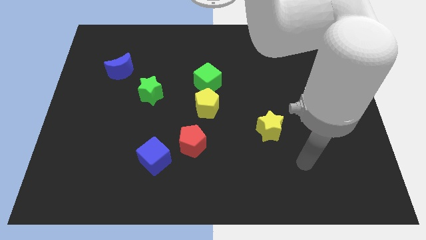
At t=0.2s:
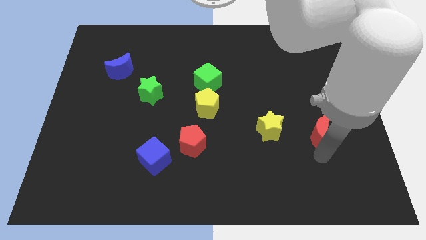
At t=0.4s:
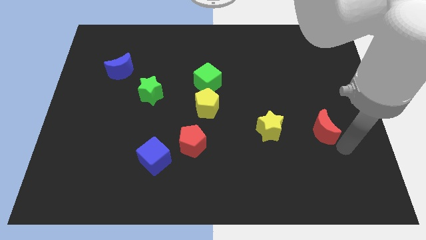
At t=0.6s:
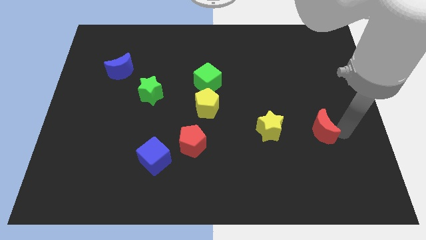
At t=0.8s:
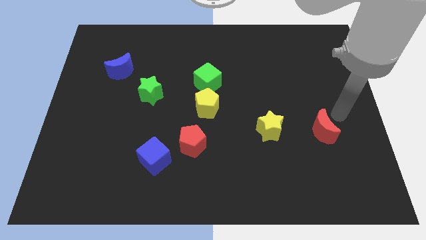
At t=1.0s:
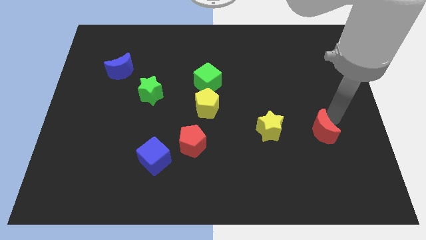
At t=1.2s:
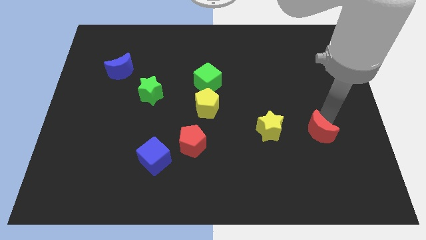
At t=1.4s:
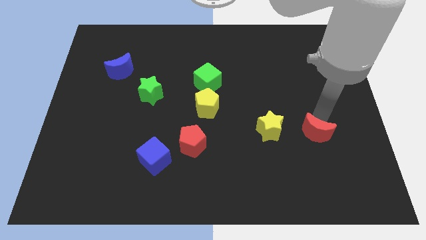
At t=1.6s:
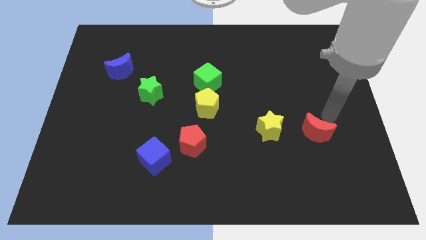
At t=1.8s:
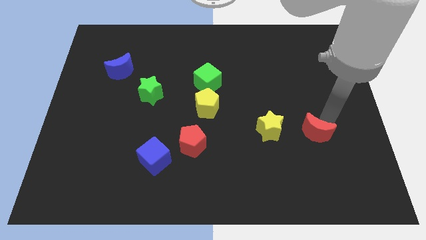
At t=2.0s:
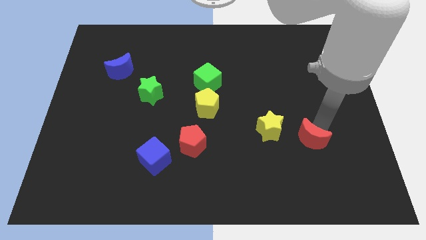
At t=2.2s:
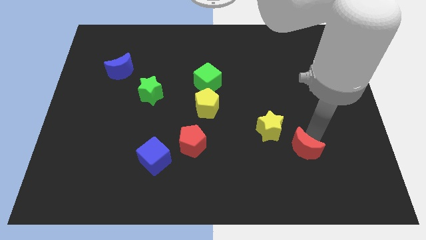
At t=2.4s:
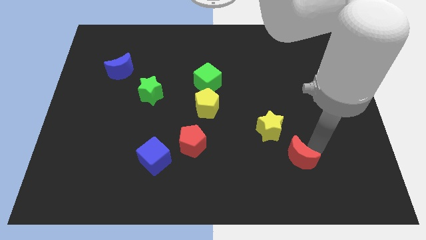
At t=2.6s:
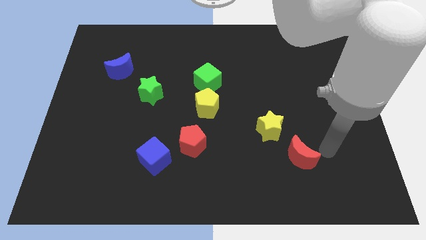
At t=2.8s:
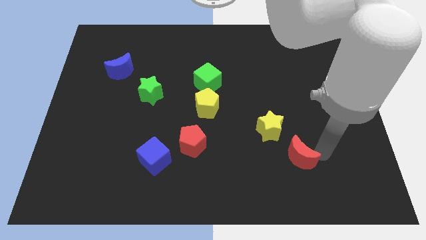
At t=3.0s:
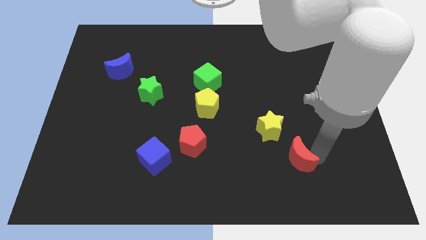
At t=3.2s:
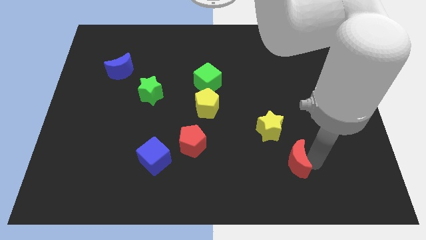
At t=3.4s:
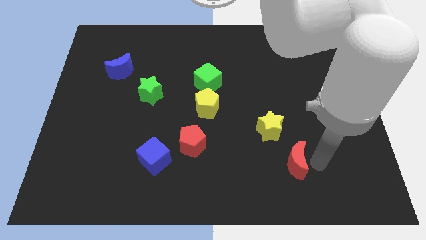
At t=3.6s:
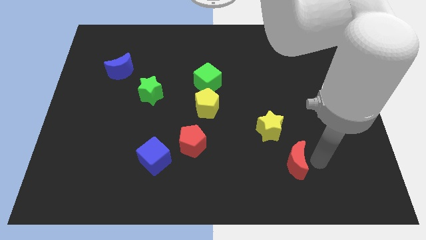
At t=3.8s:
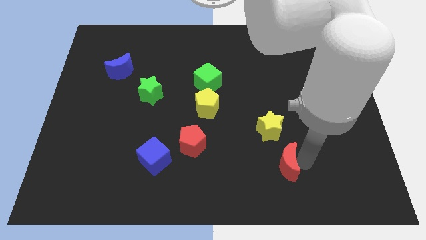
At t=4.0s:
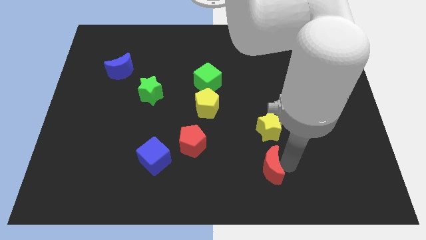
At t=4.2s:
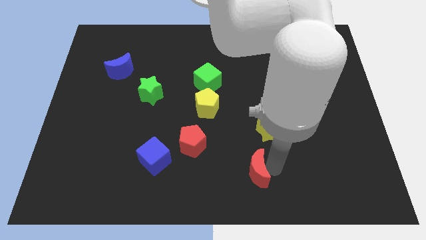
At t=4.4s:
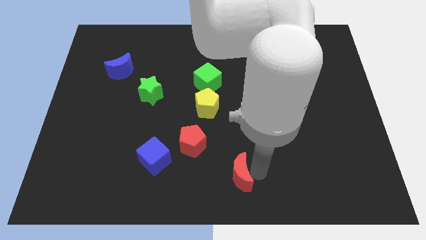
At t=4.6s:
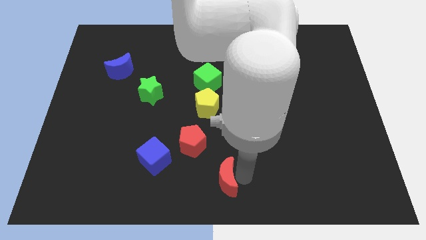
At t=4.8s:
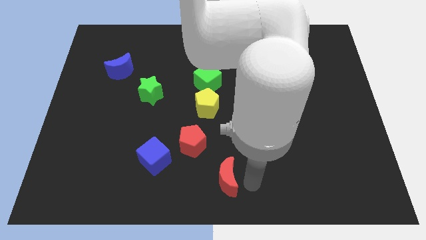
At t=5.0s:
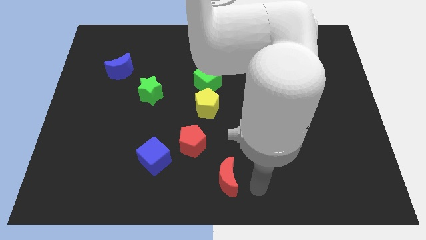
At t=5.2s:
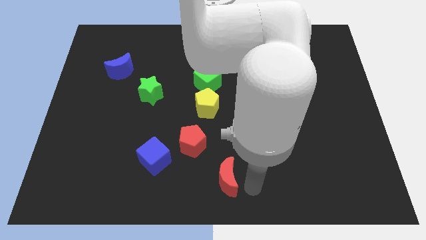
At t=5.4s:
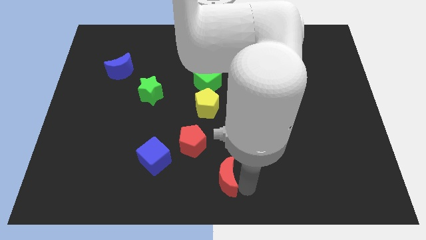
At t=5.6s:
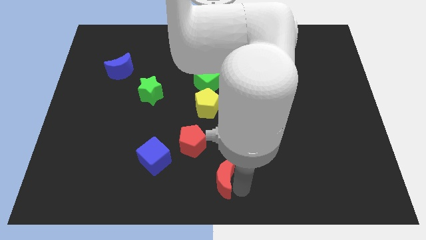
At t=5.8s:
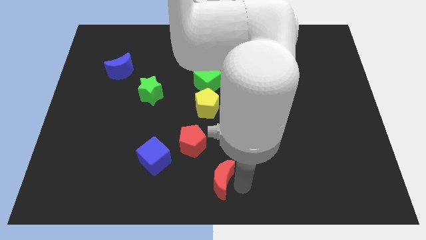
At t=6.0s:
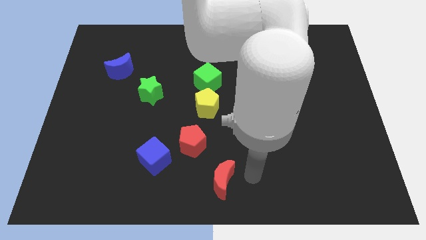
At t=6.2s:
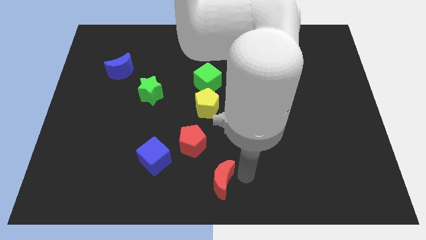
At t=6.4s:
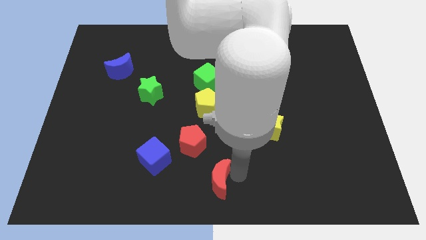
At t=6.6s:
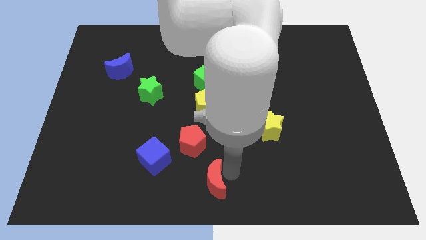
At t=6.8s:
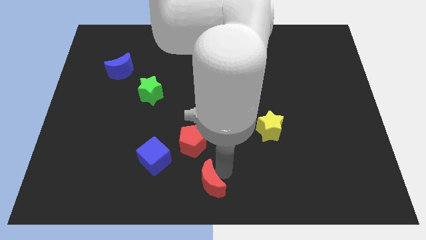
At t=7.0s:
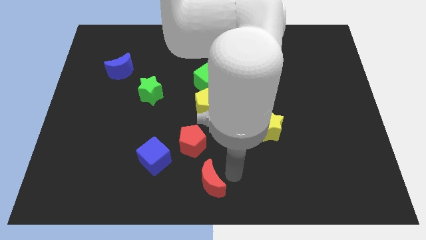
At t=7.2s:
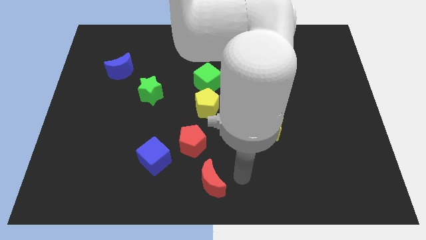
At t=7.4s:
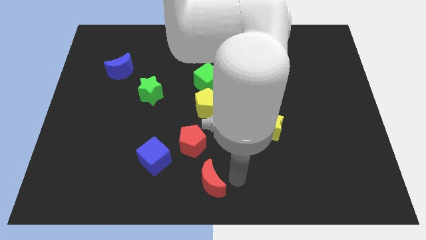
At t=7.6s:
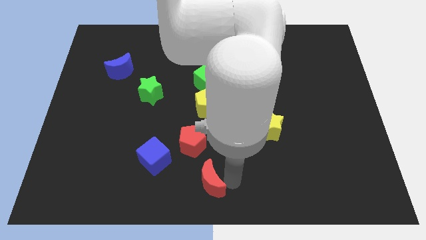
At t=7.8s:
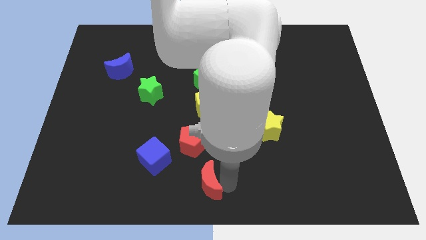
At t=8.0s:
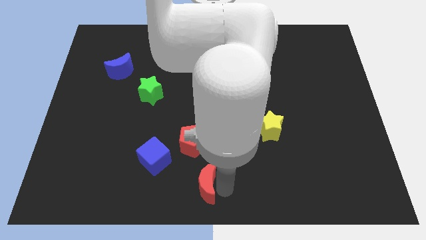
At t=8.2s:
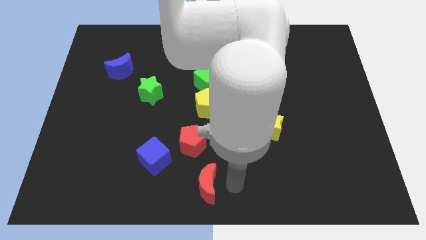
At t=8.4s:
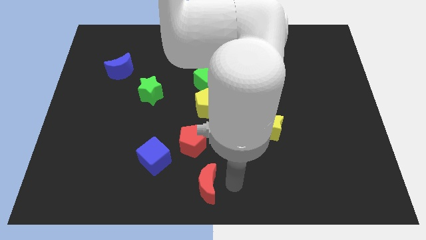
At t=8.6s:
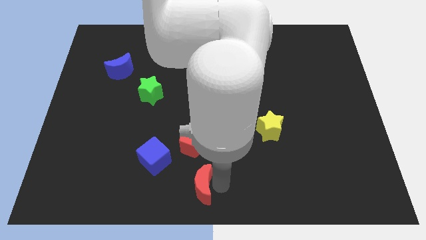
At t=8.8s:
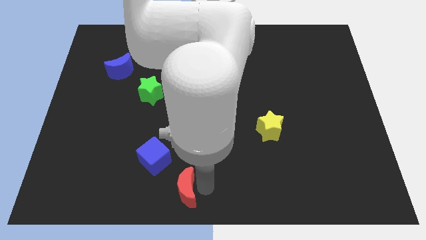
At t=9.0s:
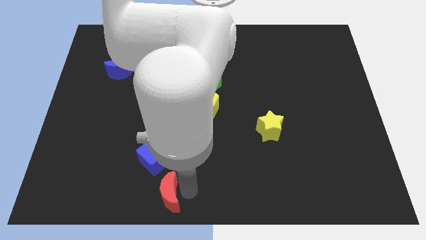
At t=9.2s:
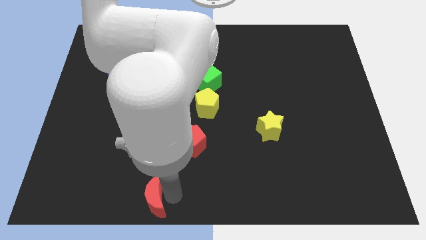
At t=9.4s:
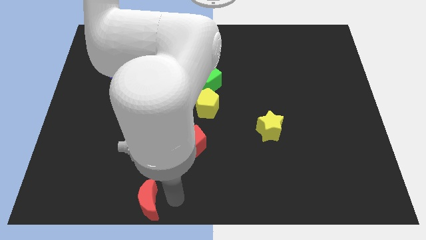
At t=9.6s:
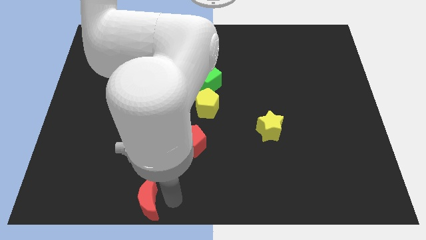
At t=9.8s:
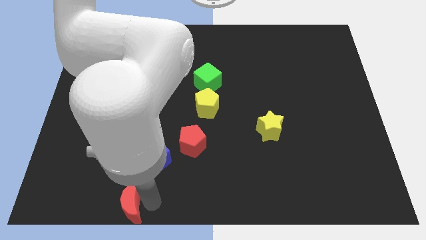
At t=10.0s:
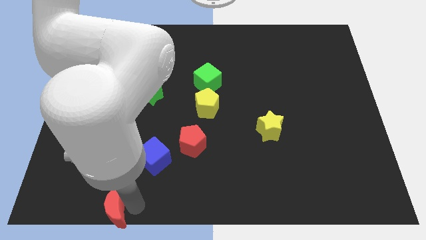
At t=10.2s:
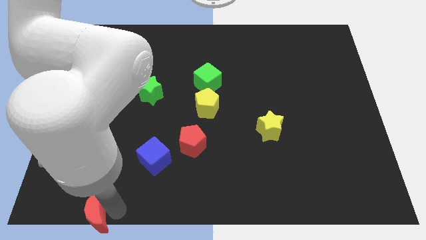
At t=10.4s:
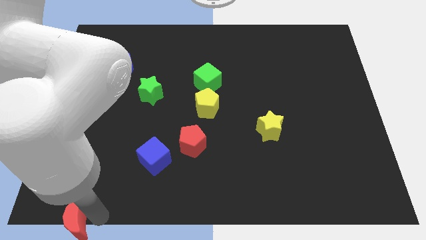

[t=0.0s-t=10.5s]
move the red moon to the bottom left corner

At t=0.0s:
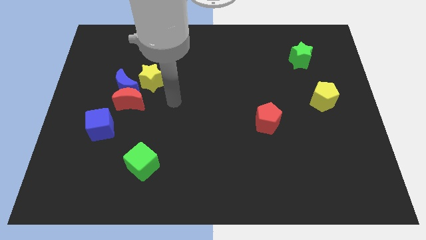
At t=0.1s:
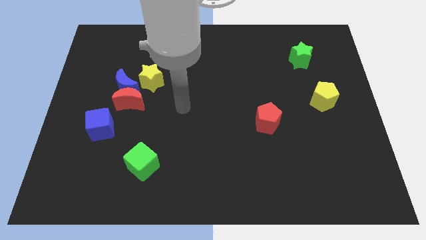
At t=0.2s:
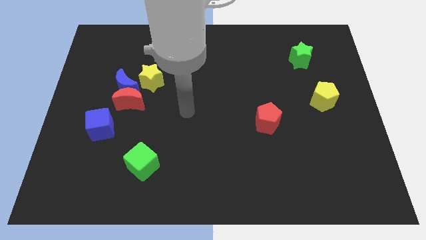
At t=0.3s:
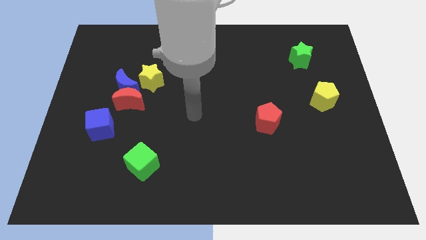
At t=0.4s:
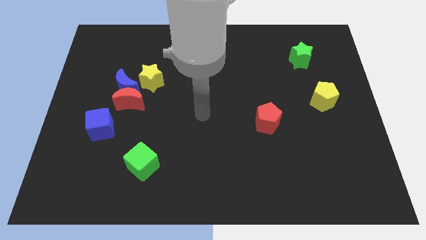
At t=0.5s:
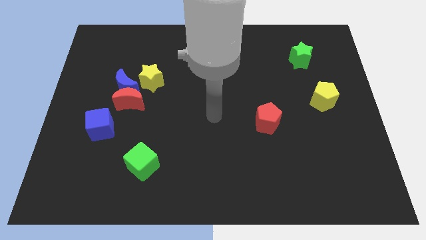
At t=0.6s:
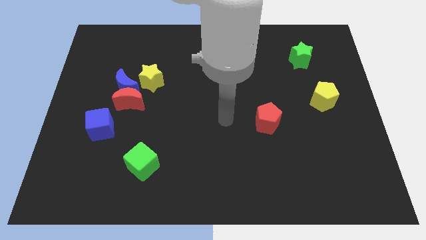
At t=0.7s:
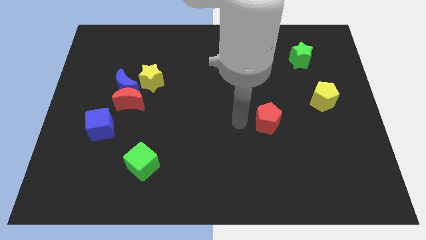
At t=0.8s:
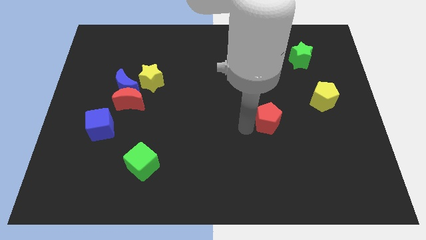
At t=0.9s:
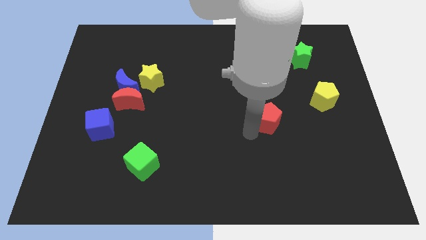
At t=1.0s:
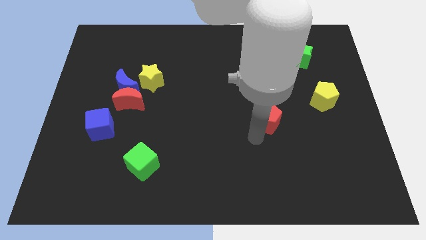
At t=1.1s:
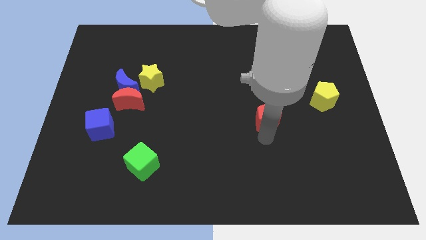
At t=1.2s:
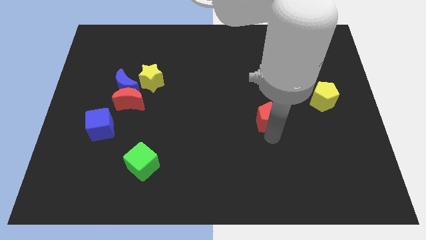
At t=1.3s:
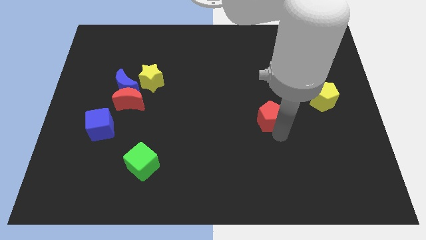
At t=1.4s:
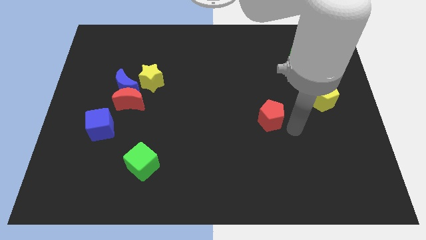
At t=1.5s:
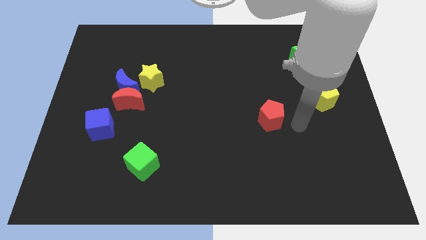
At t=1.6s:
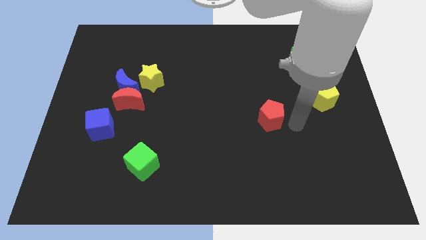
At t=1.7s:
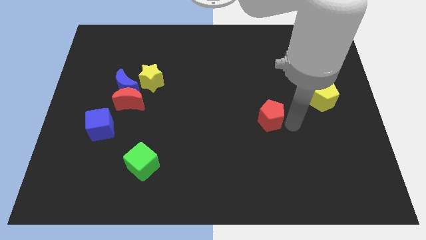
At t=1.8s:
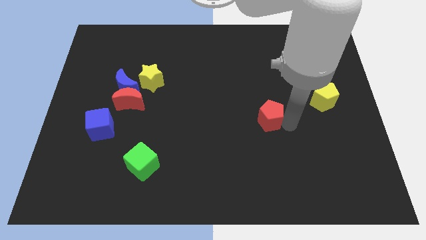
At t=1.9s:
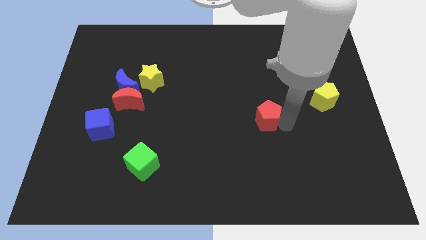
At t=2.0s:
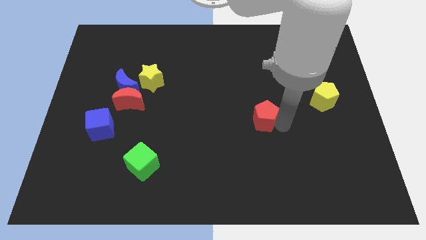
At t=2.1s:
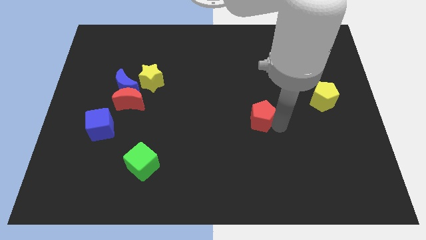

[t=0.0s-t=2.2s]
put the red pentagon to the center of the board
